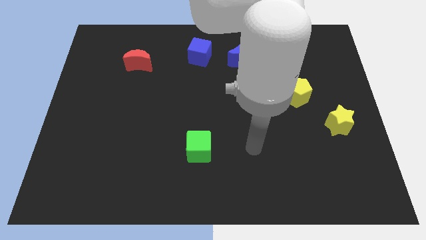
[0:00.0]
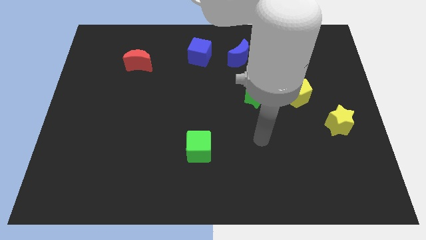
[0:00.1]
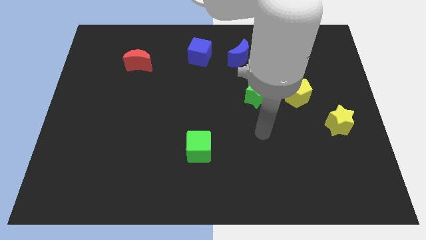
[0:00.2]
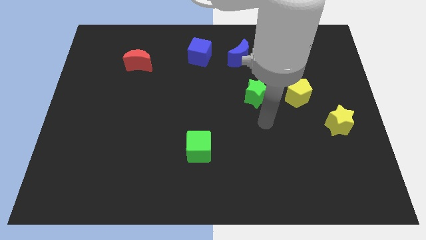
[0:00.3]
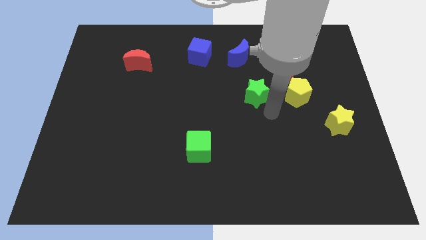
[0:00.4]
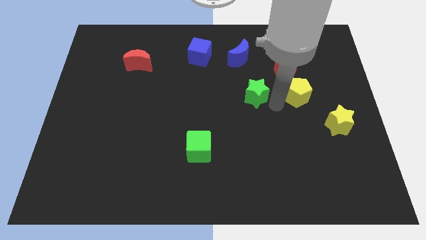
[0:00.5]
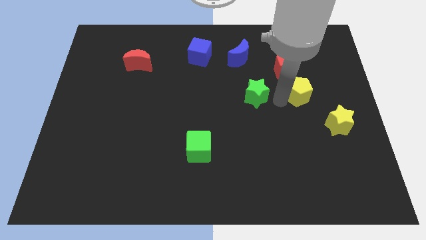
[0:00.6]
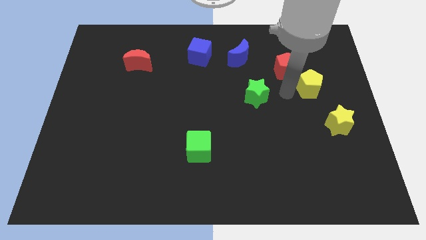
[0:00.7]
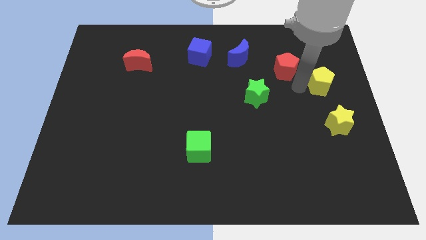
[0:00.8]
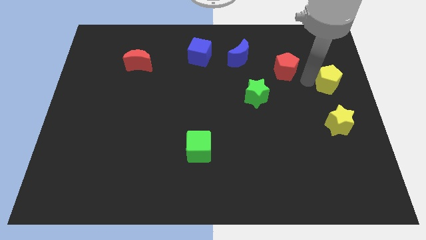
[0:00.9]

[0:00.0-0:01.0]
move the red pentagon away from the yellow pentagon

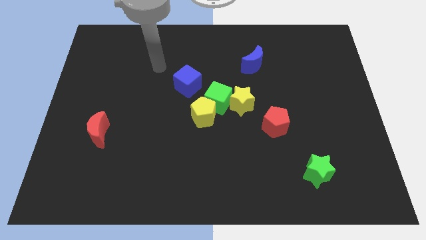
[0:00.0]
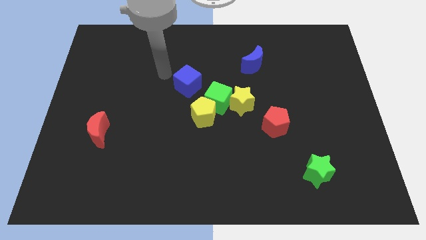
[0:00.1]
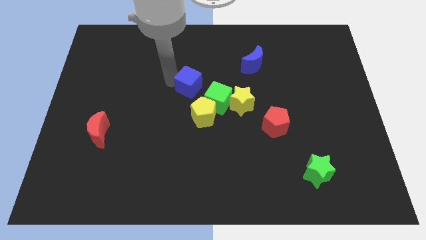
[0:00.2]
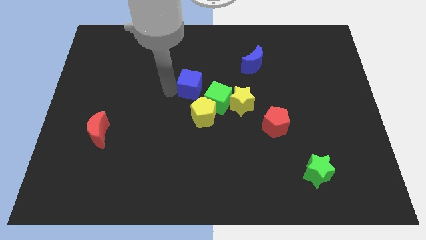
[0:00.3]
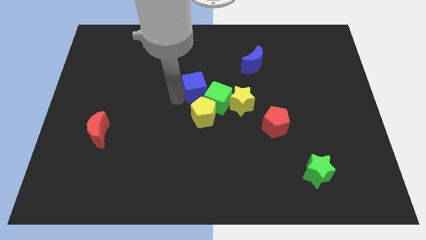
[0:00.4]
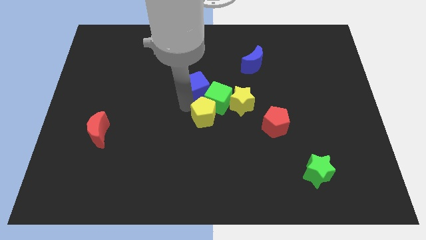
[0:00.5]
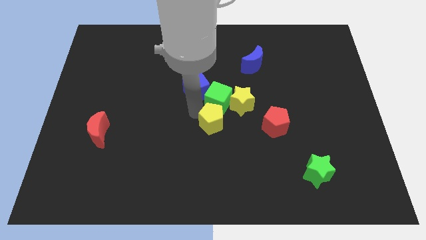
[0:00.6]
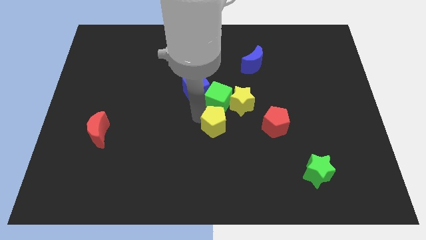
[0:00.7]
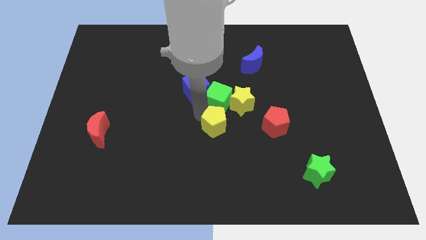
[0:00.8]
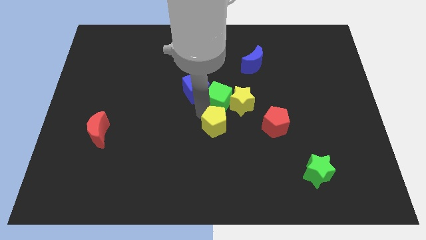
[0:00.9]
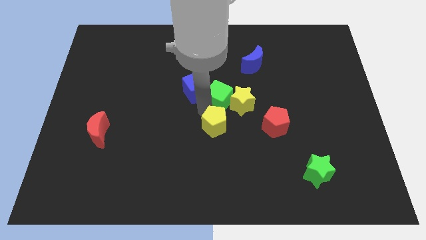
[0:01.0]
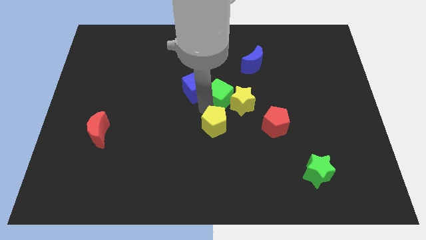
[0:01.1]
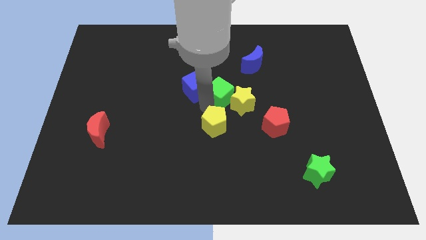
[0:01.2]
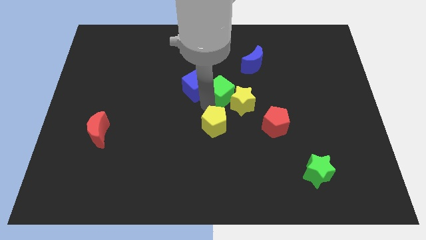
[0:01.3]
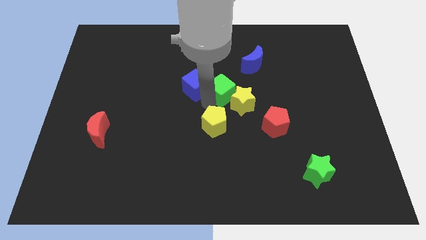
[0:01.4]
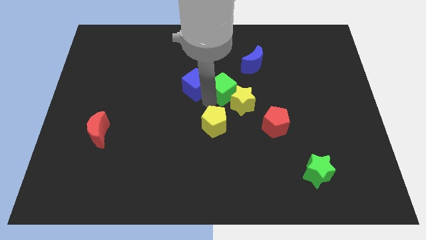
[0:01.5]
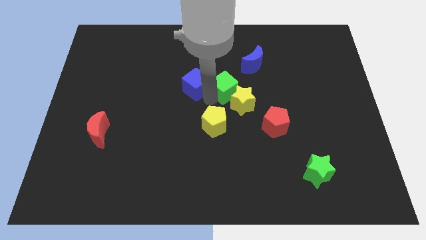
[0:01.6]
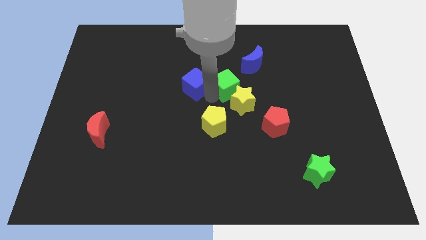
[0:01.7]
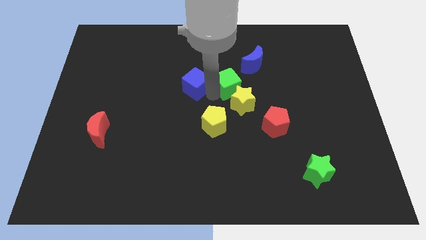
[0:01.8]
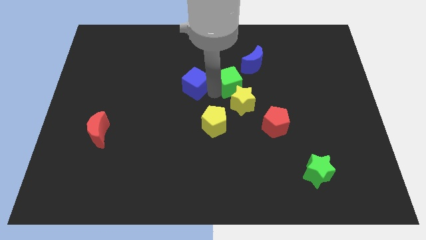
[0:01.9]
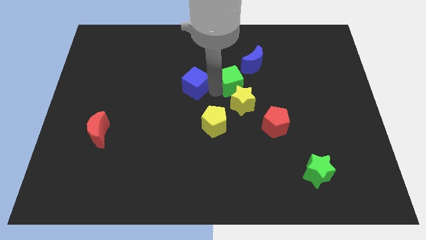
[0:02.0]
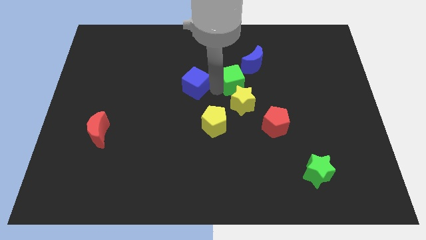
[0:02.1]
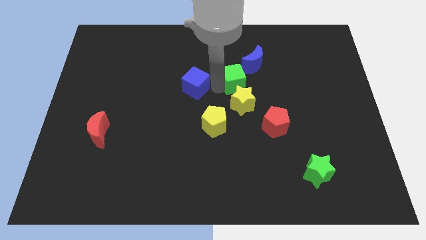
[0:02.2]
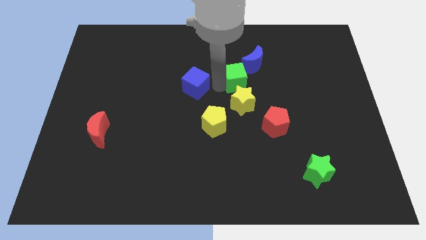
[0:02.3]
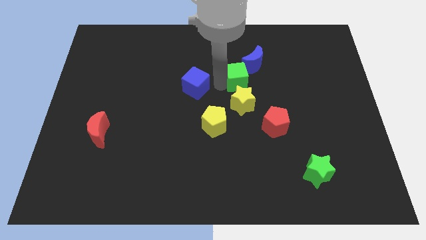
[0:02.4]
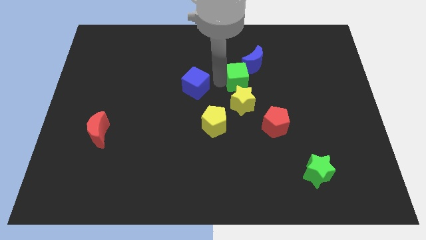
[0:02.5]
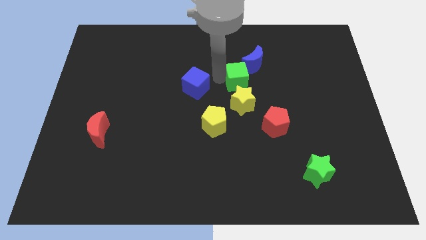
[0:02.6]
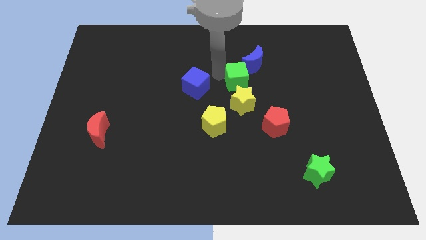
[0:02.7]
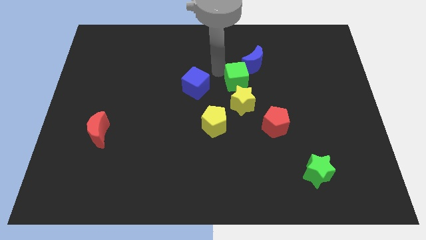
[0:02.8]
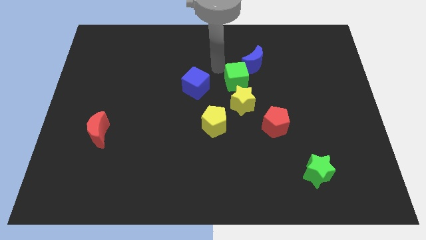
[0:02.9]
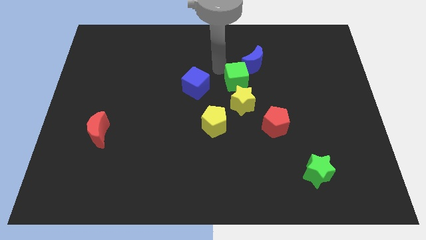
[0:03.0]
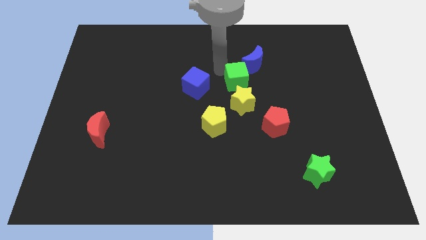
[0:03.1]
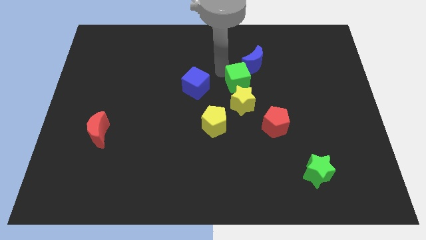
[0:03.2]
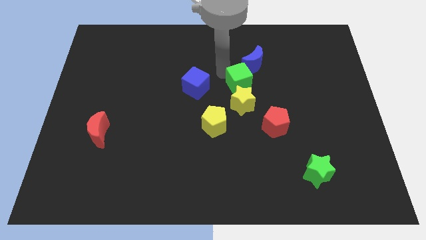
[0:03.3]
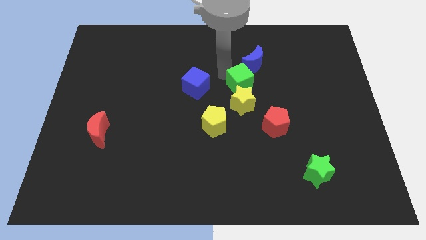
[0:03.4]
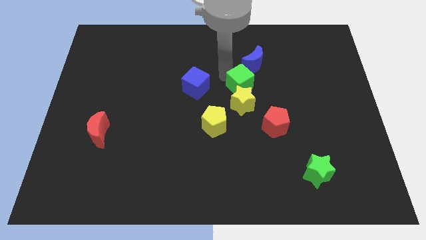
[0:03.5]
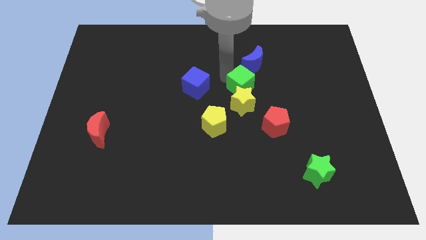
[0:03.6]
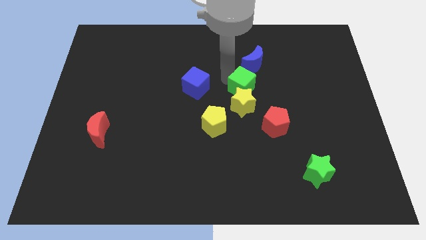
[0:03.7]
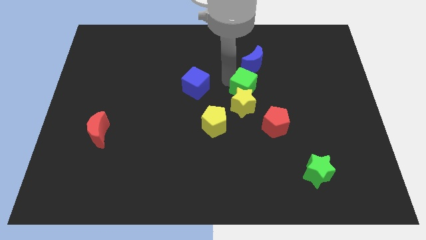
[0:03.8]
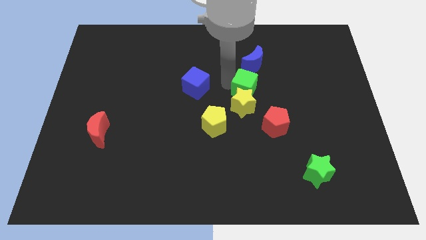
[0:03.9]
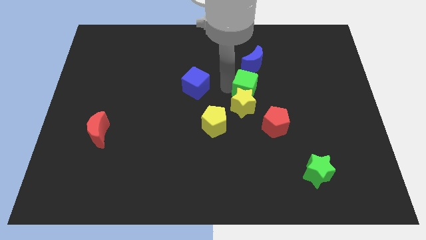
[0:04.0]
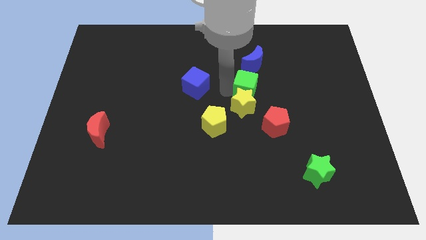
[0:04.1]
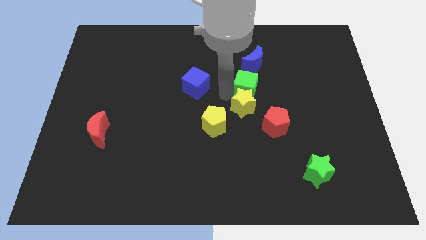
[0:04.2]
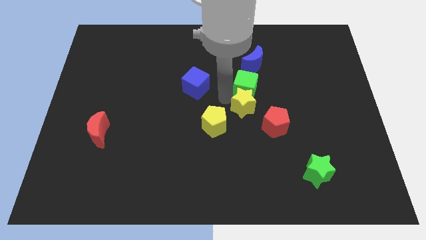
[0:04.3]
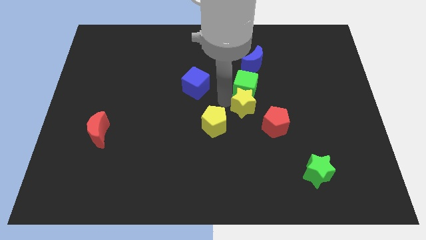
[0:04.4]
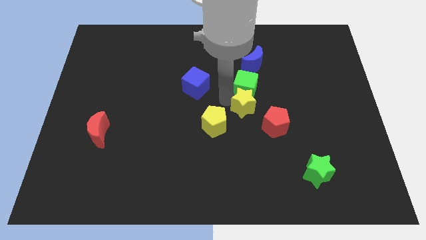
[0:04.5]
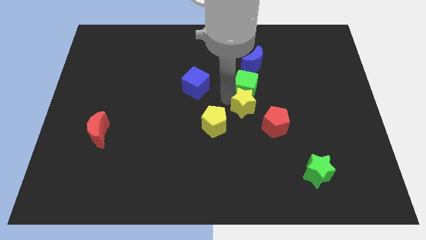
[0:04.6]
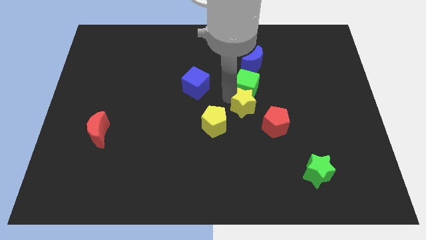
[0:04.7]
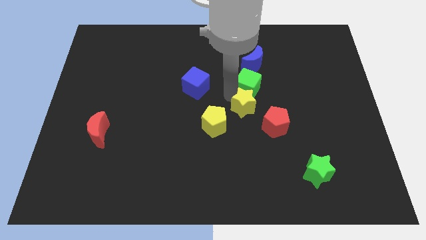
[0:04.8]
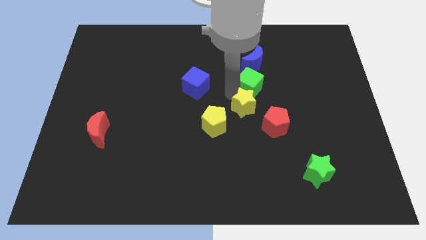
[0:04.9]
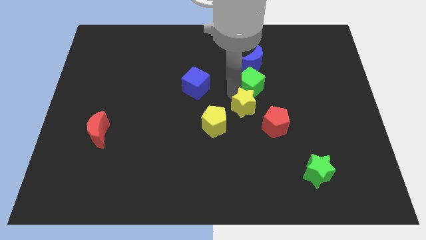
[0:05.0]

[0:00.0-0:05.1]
move the green cube away from the group of blocks

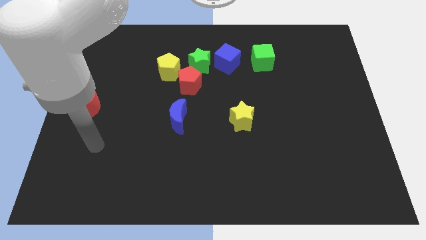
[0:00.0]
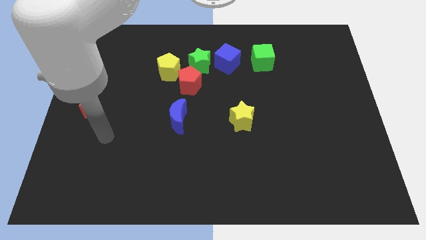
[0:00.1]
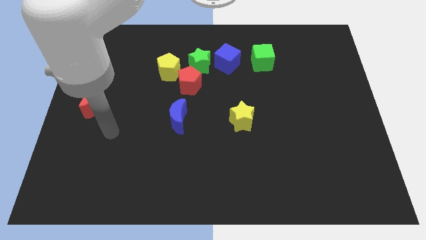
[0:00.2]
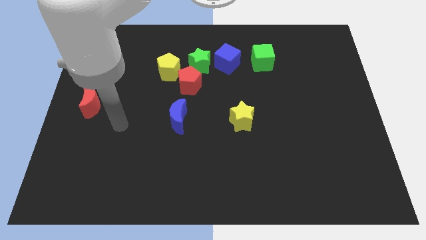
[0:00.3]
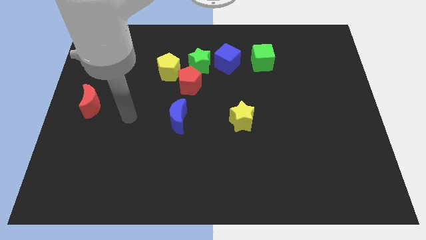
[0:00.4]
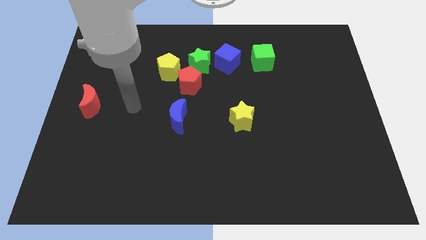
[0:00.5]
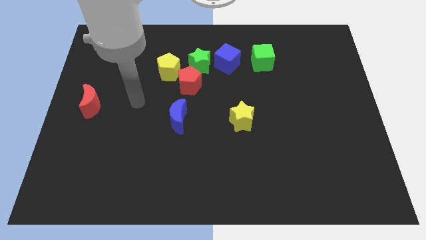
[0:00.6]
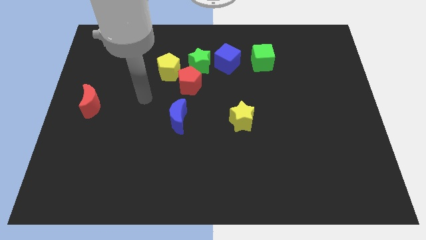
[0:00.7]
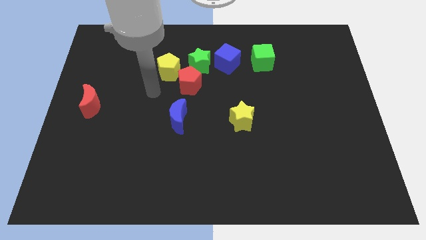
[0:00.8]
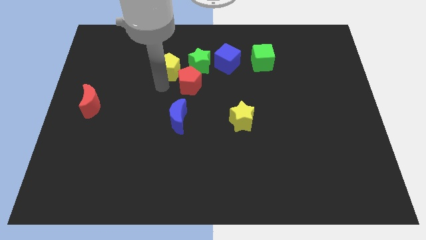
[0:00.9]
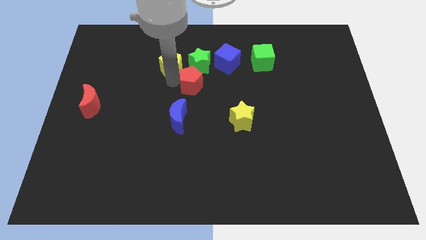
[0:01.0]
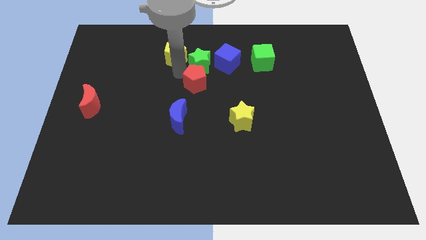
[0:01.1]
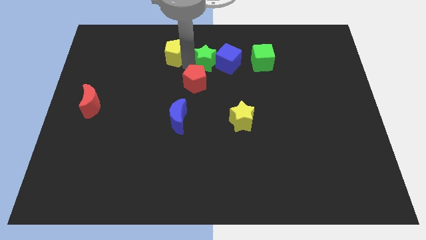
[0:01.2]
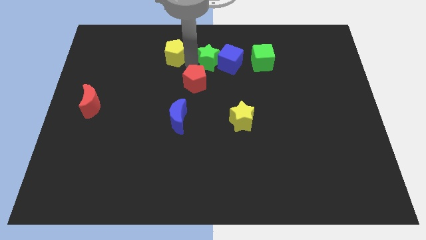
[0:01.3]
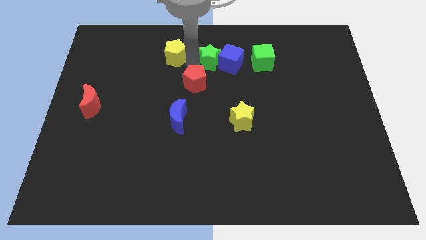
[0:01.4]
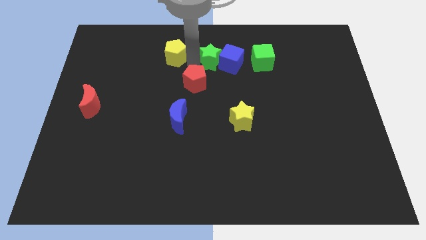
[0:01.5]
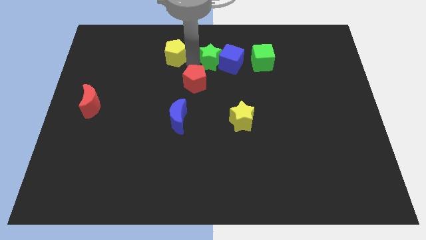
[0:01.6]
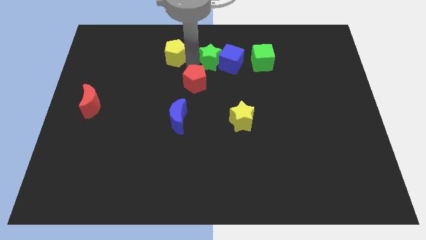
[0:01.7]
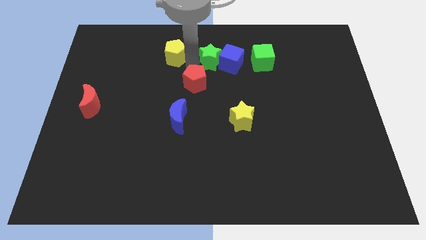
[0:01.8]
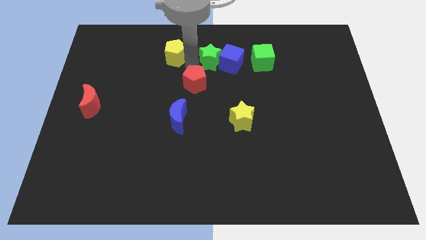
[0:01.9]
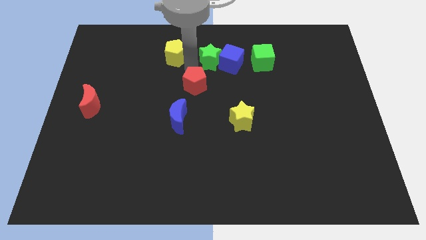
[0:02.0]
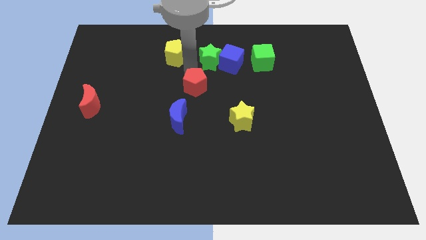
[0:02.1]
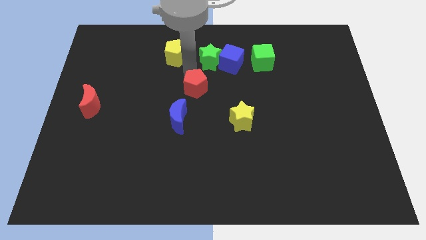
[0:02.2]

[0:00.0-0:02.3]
move the red pentagon away from the yellow pentagon and green star

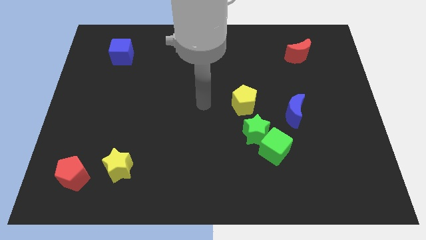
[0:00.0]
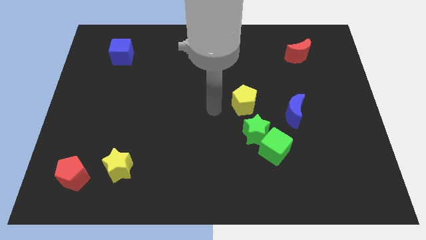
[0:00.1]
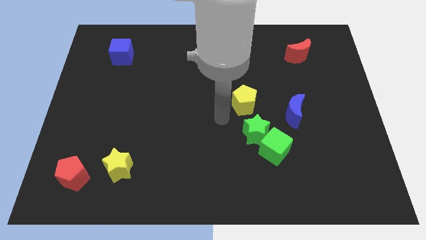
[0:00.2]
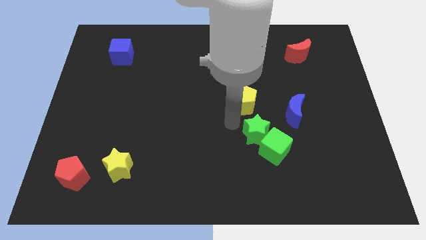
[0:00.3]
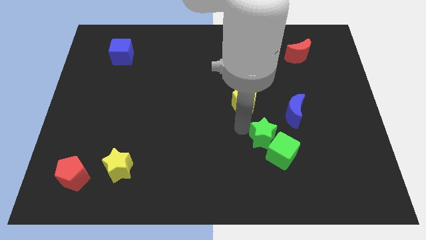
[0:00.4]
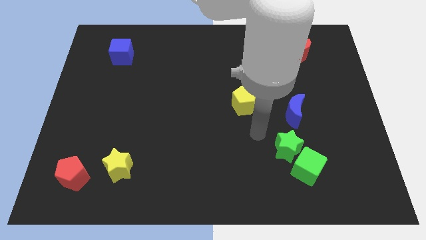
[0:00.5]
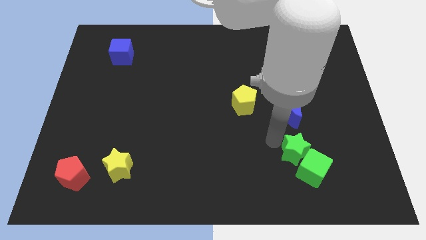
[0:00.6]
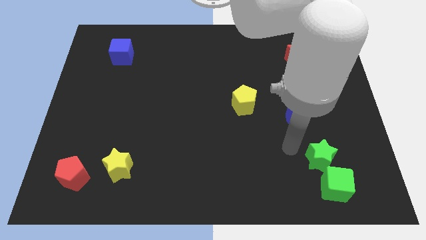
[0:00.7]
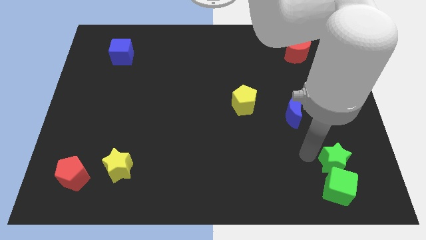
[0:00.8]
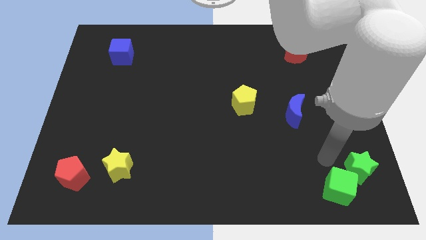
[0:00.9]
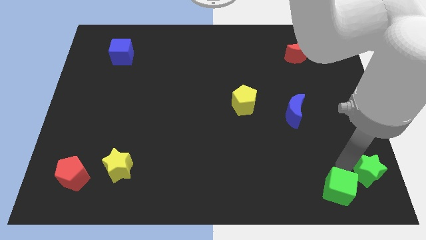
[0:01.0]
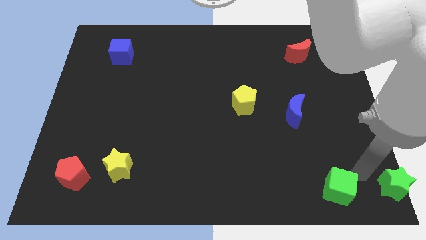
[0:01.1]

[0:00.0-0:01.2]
pull the green cube apart from the green star
